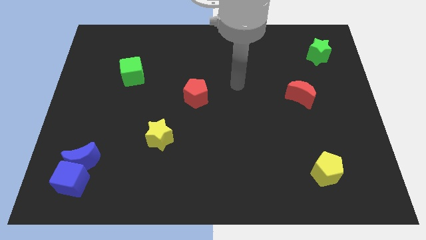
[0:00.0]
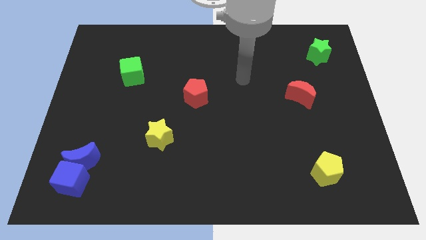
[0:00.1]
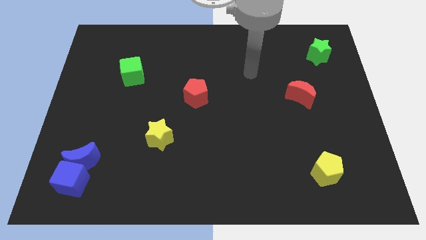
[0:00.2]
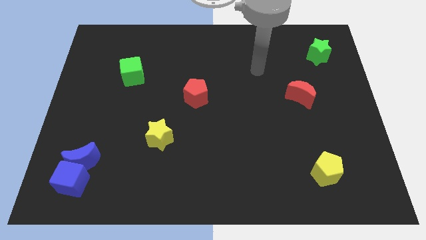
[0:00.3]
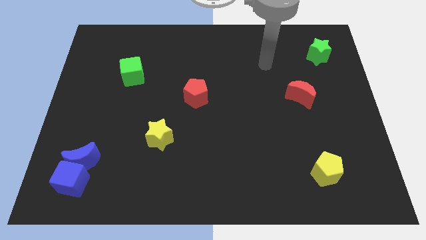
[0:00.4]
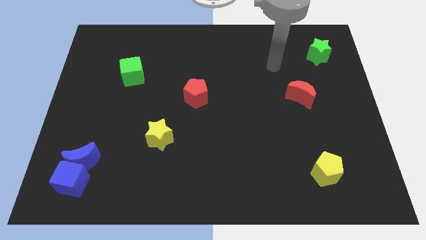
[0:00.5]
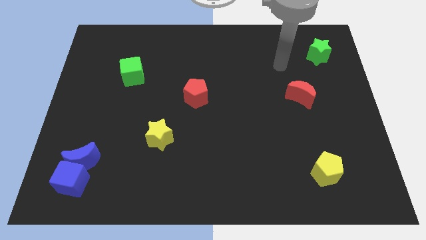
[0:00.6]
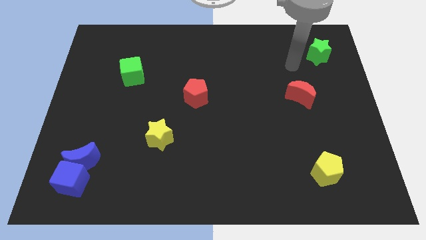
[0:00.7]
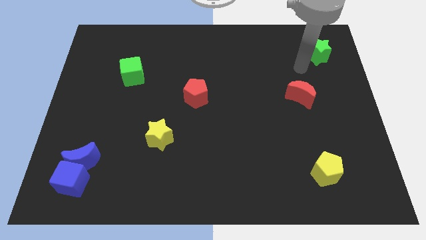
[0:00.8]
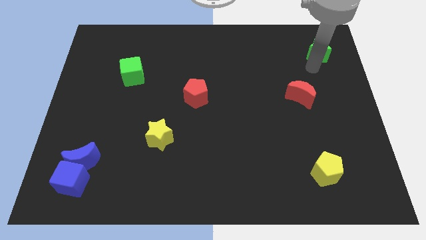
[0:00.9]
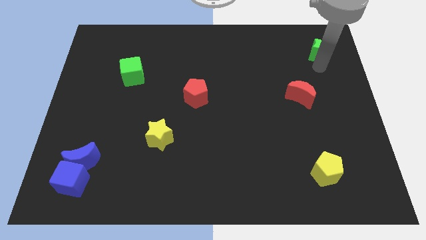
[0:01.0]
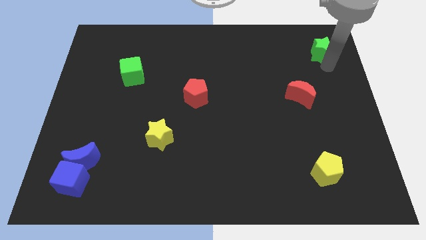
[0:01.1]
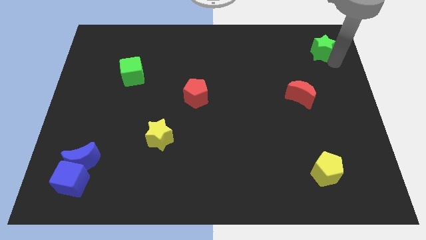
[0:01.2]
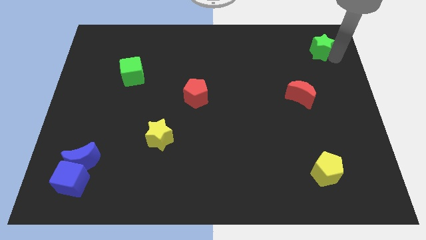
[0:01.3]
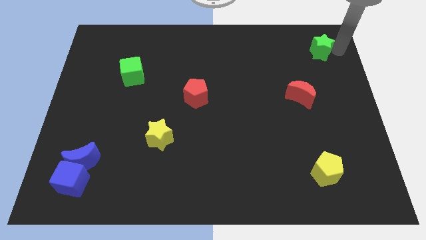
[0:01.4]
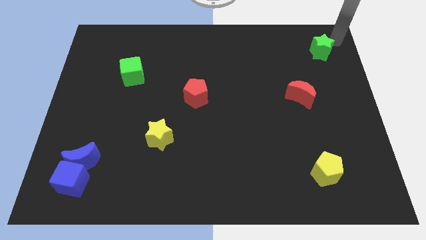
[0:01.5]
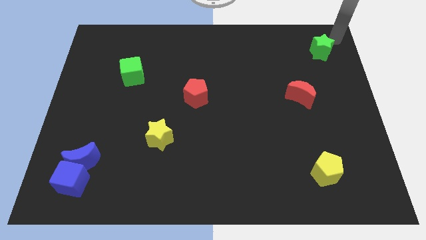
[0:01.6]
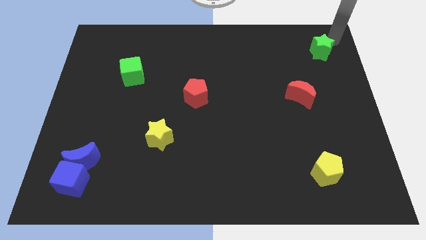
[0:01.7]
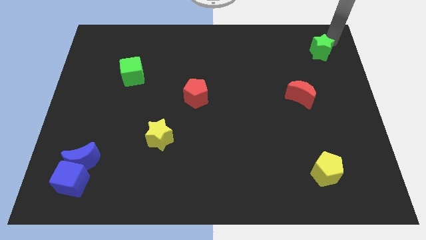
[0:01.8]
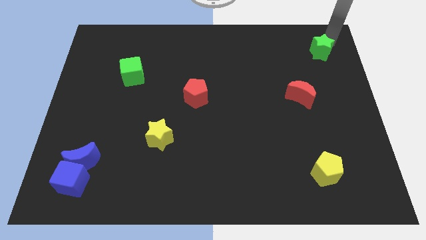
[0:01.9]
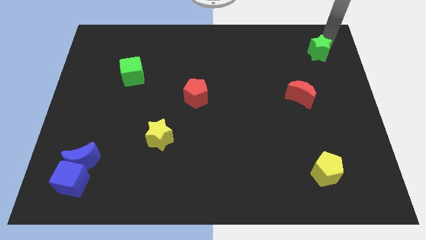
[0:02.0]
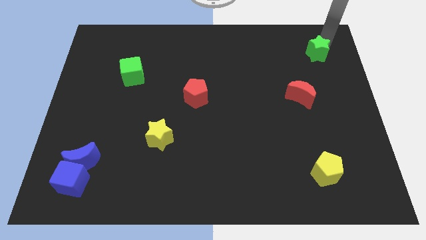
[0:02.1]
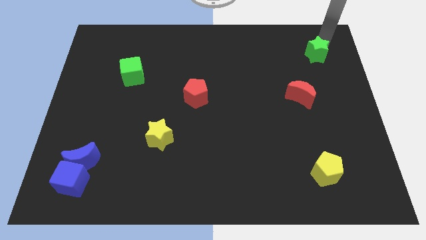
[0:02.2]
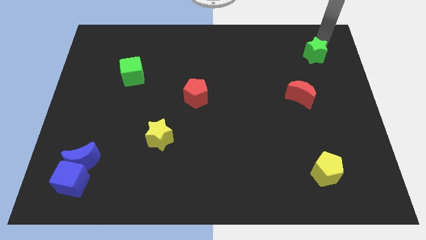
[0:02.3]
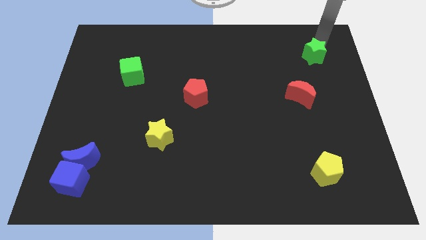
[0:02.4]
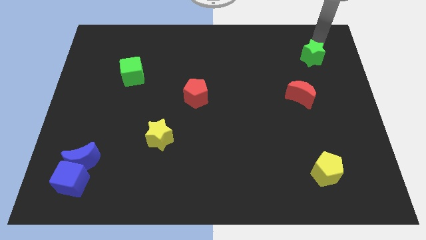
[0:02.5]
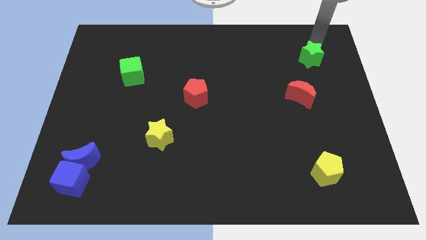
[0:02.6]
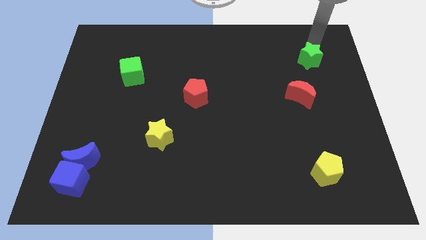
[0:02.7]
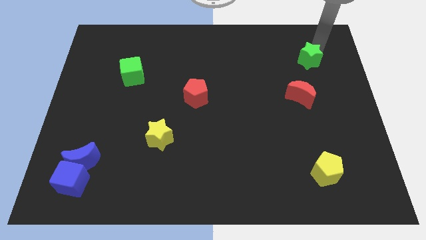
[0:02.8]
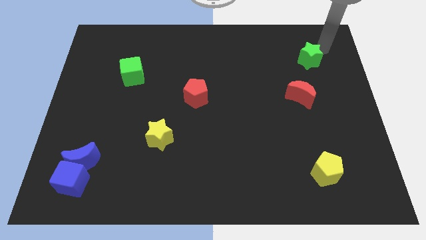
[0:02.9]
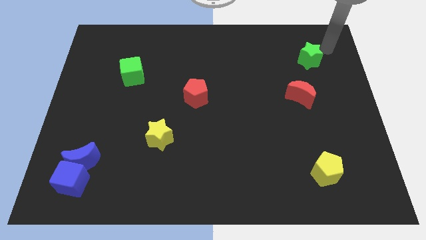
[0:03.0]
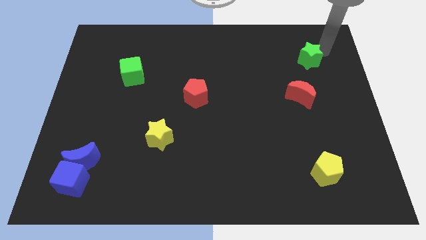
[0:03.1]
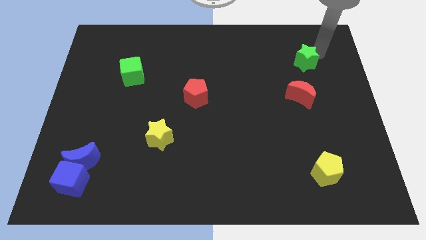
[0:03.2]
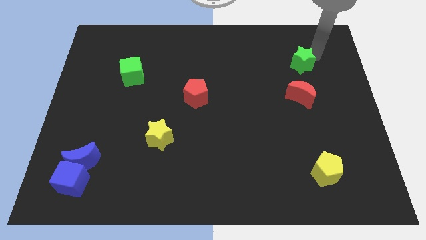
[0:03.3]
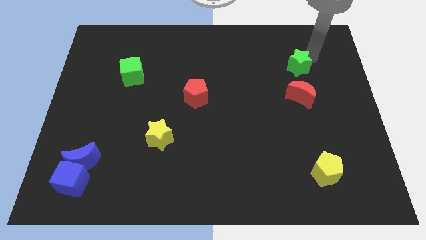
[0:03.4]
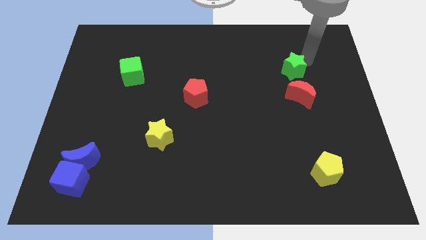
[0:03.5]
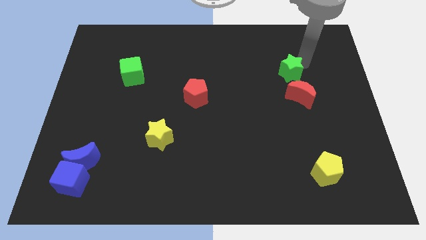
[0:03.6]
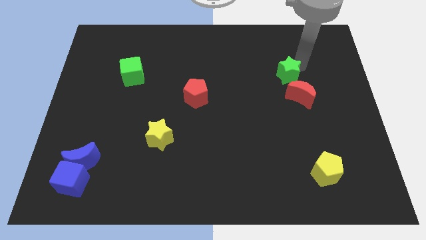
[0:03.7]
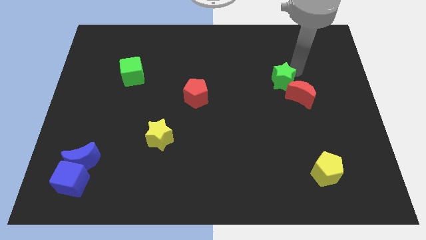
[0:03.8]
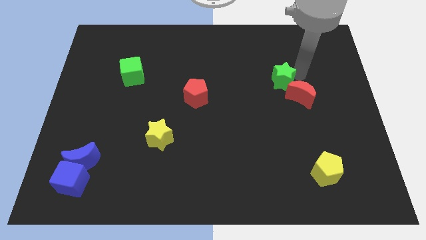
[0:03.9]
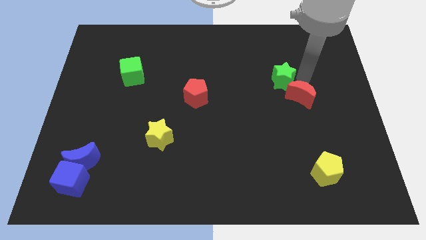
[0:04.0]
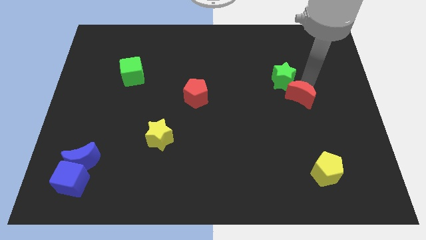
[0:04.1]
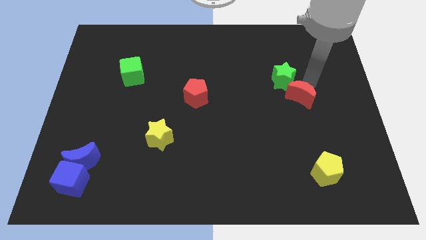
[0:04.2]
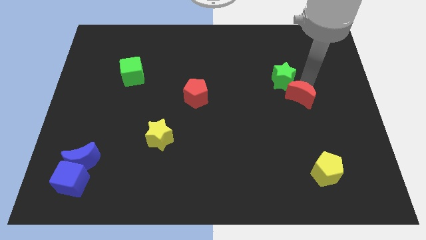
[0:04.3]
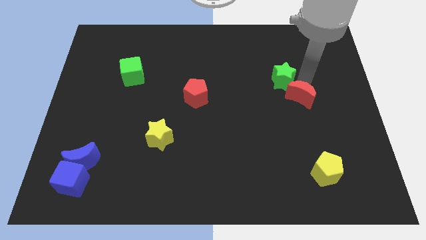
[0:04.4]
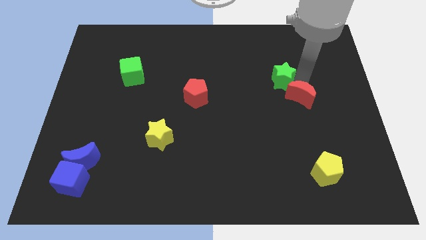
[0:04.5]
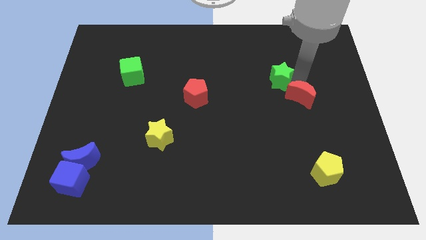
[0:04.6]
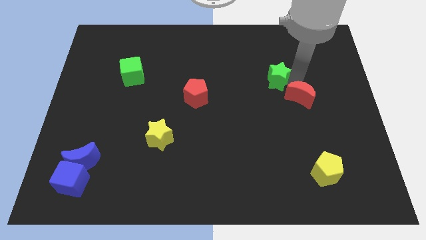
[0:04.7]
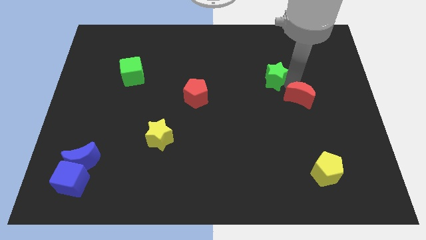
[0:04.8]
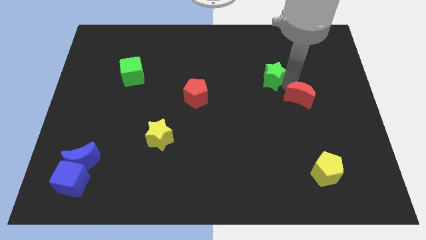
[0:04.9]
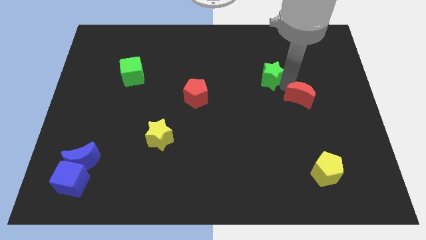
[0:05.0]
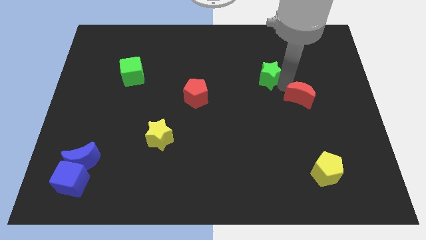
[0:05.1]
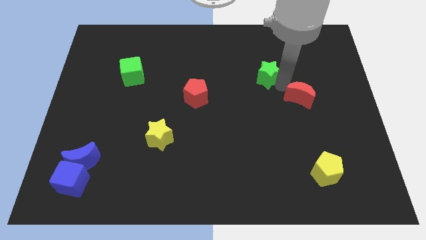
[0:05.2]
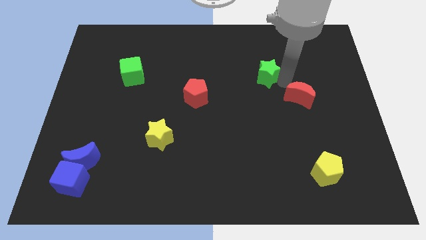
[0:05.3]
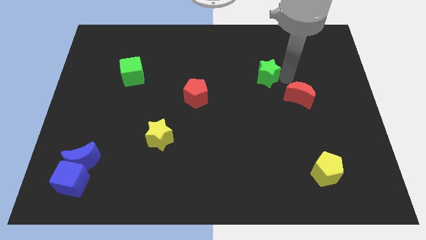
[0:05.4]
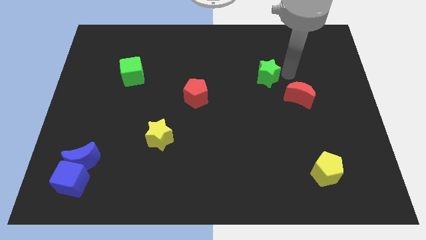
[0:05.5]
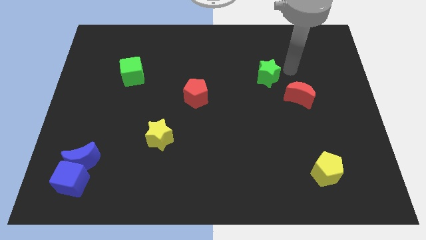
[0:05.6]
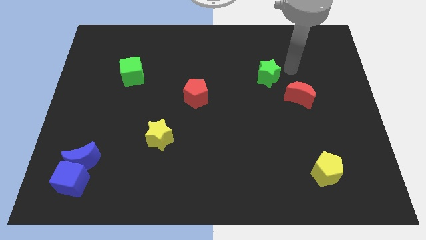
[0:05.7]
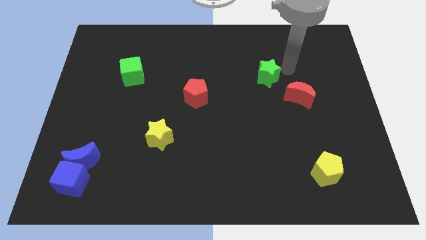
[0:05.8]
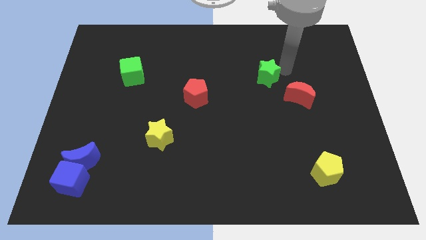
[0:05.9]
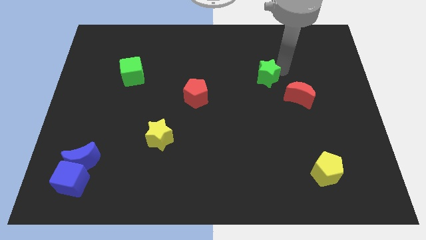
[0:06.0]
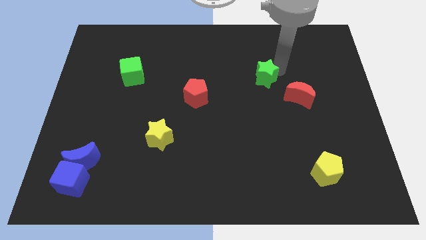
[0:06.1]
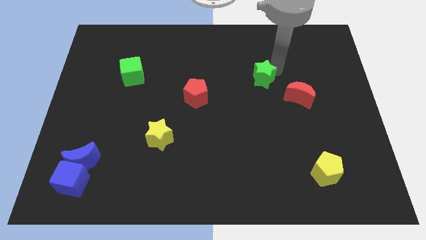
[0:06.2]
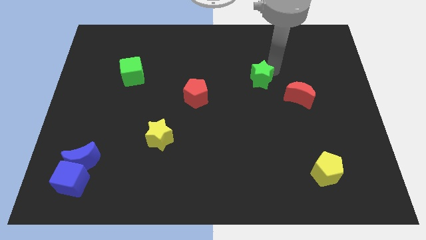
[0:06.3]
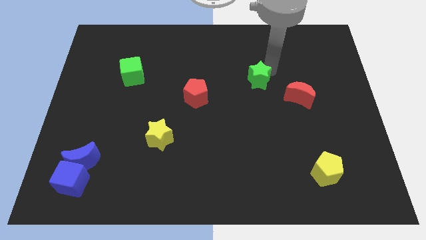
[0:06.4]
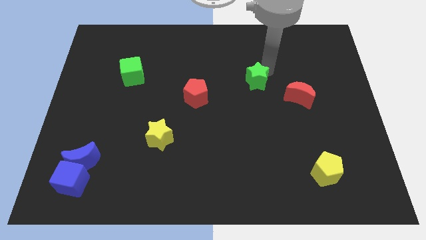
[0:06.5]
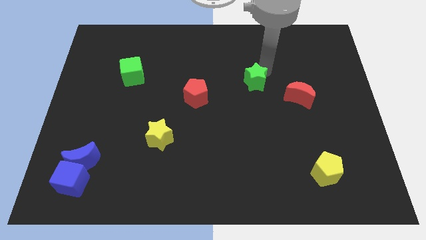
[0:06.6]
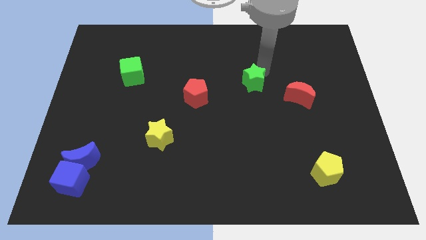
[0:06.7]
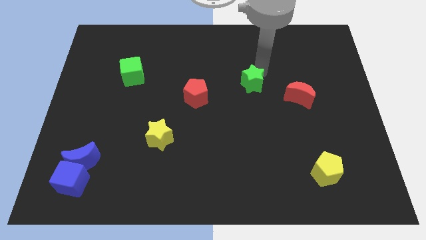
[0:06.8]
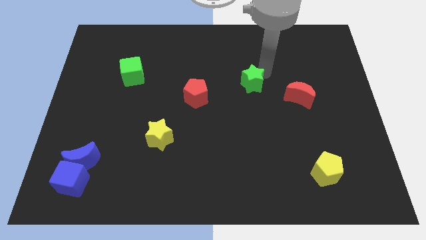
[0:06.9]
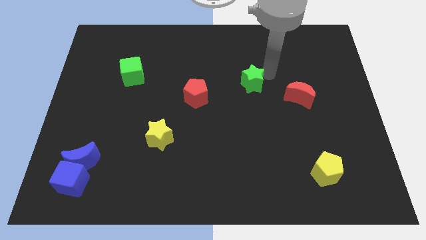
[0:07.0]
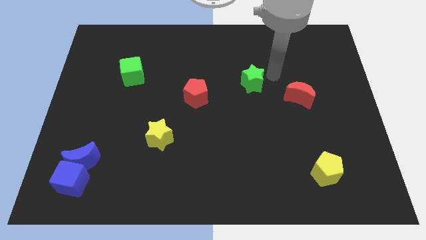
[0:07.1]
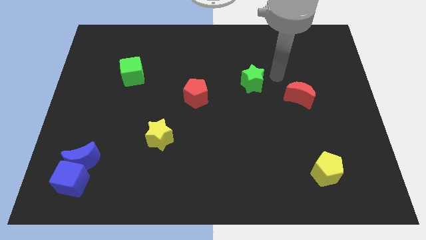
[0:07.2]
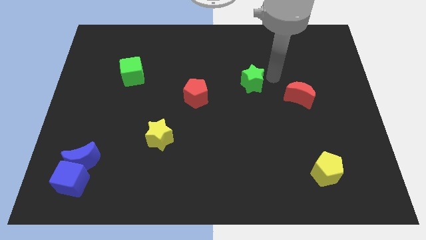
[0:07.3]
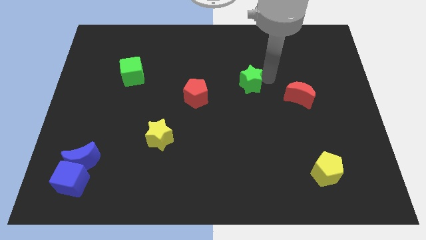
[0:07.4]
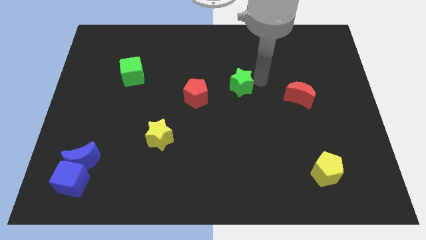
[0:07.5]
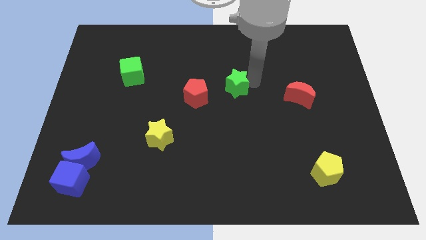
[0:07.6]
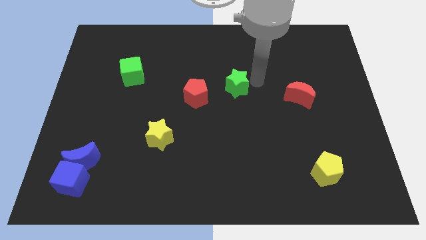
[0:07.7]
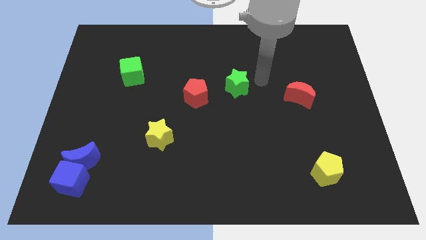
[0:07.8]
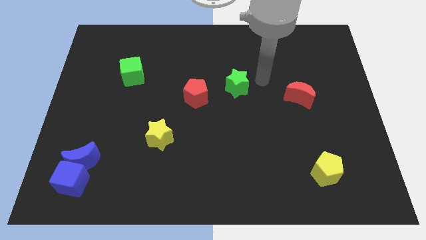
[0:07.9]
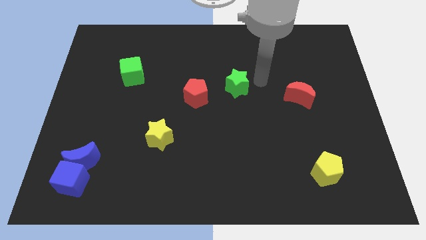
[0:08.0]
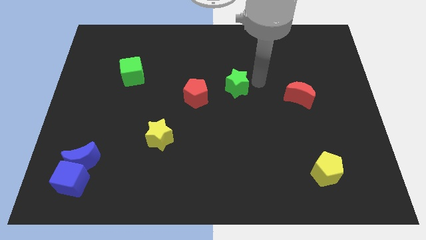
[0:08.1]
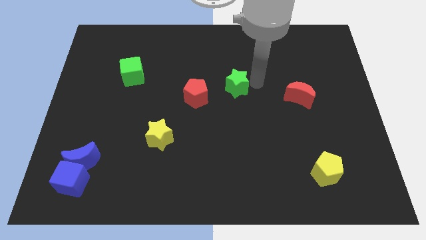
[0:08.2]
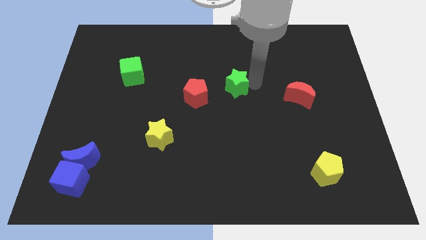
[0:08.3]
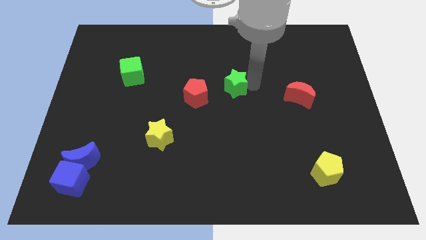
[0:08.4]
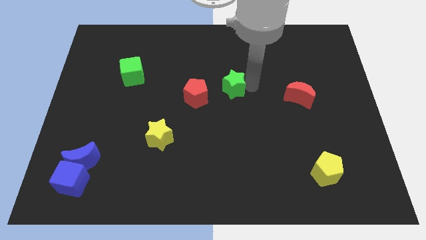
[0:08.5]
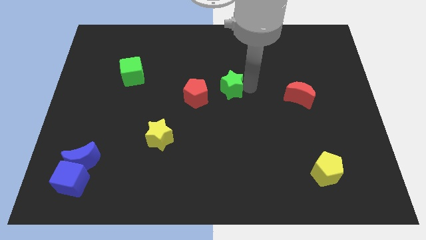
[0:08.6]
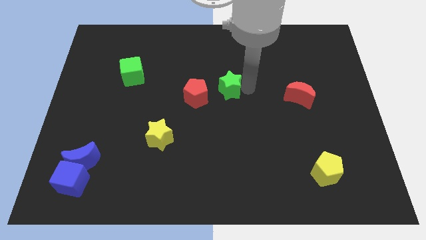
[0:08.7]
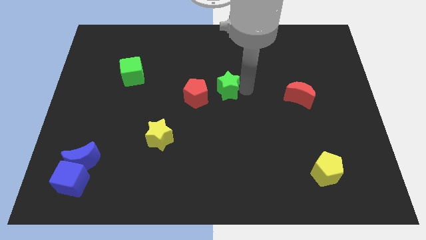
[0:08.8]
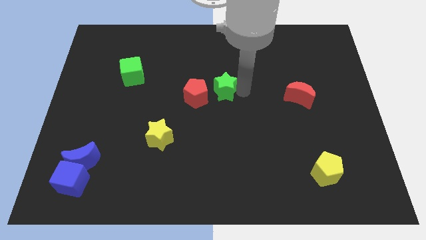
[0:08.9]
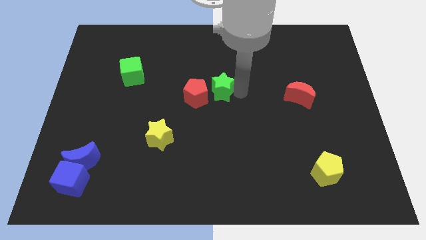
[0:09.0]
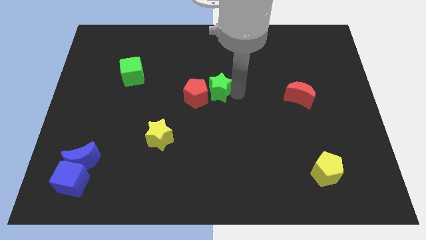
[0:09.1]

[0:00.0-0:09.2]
push the green star next to the red pentagon
